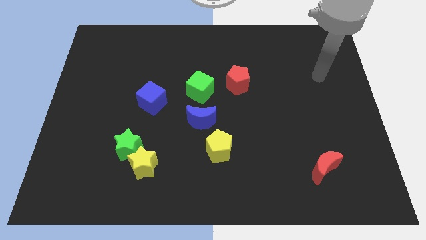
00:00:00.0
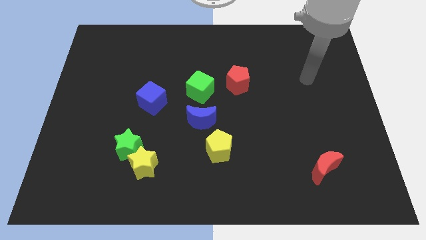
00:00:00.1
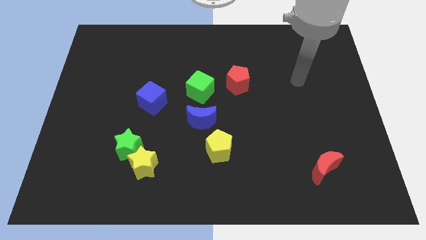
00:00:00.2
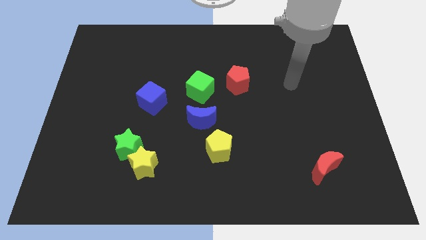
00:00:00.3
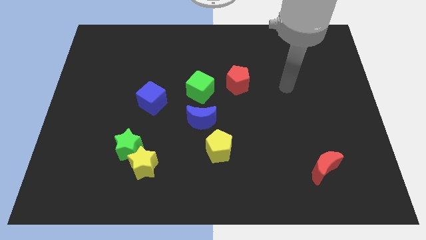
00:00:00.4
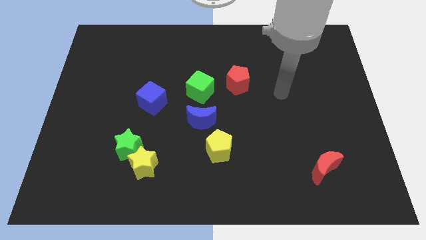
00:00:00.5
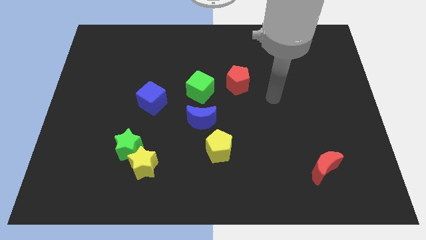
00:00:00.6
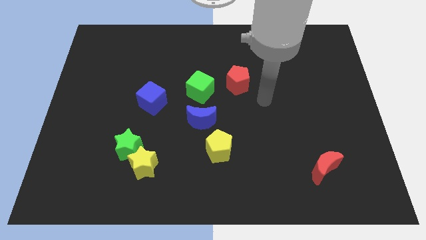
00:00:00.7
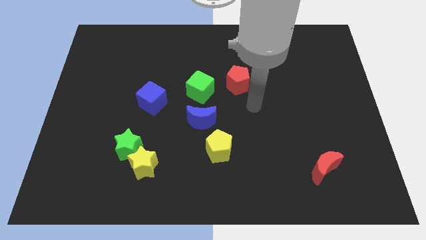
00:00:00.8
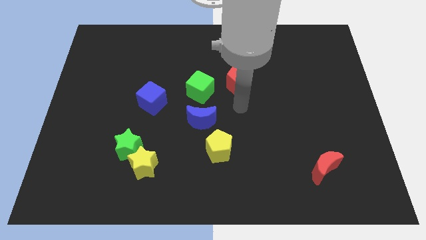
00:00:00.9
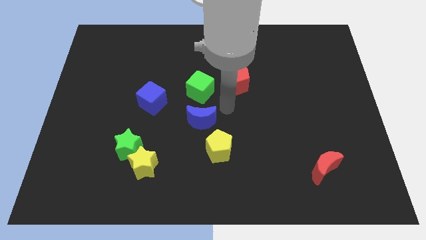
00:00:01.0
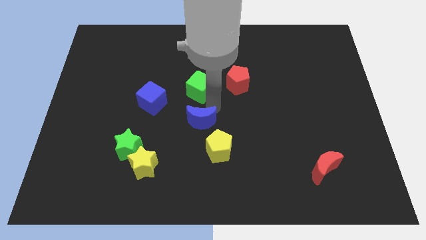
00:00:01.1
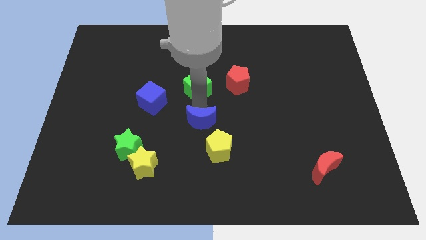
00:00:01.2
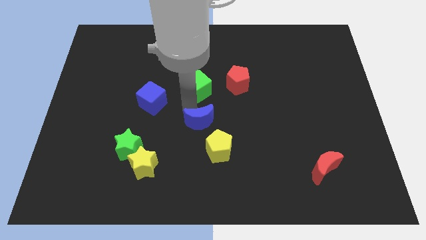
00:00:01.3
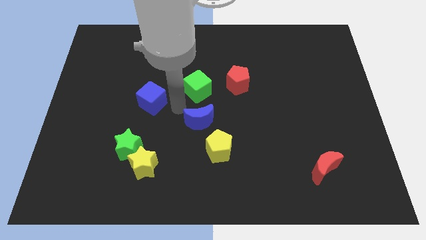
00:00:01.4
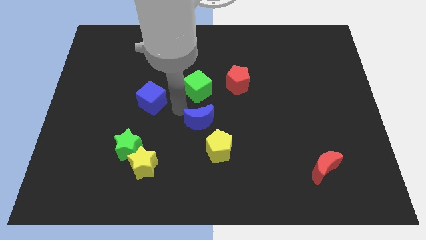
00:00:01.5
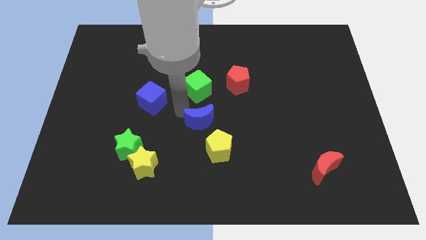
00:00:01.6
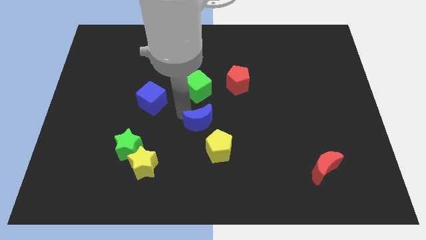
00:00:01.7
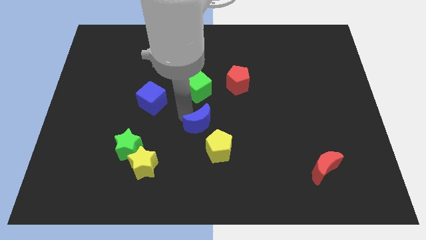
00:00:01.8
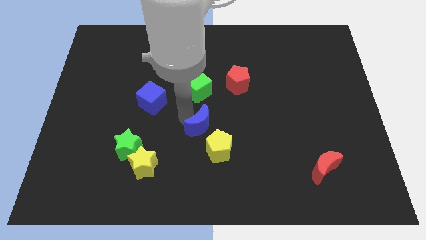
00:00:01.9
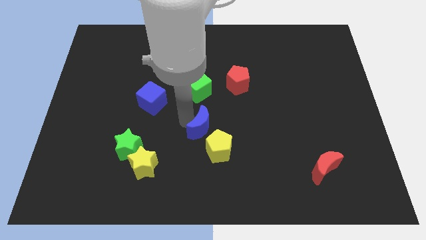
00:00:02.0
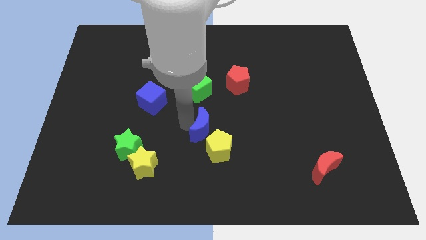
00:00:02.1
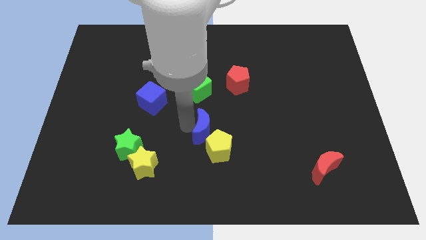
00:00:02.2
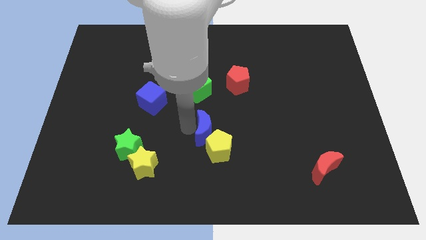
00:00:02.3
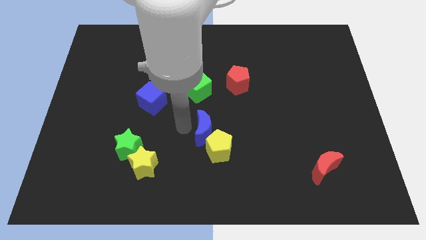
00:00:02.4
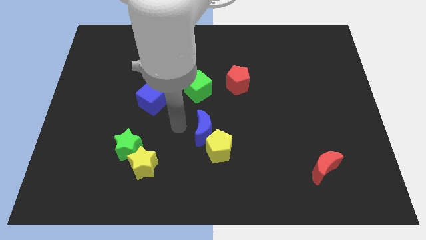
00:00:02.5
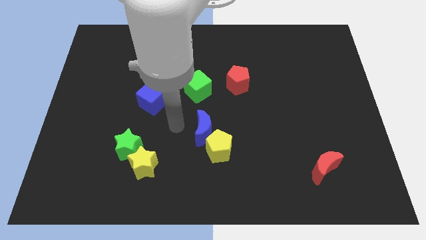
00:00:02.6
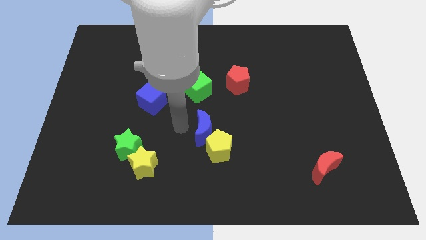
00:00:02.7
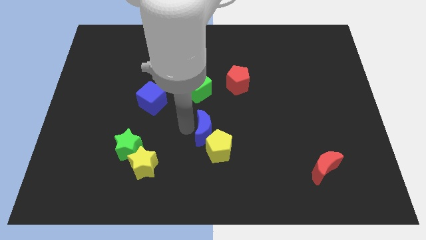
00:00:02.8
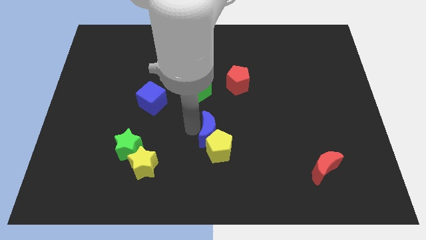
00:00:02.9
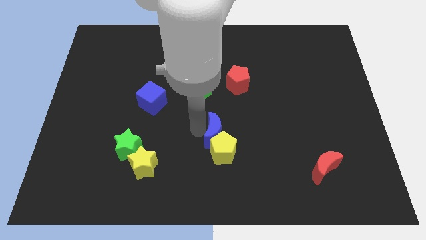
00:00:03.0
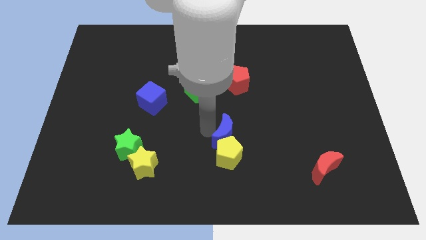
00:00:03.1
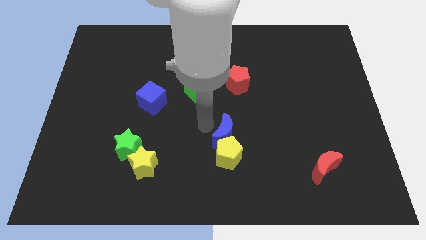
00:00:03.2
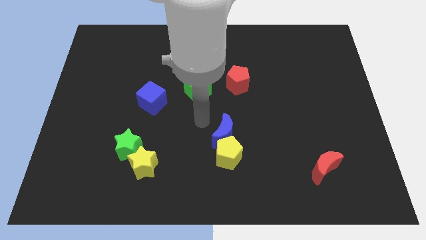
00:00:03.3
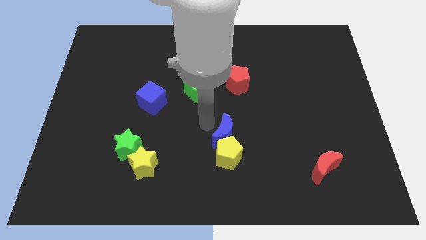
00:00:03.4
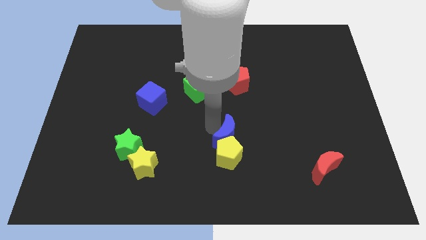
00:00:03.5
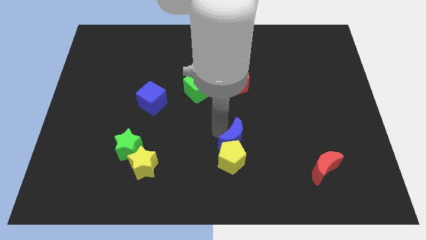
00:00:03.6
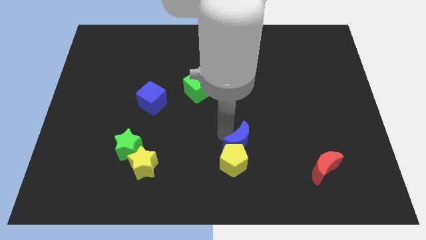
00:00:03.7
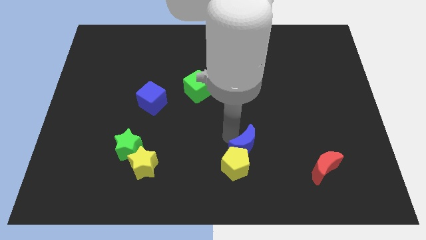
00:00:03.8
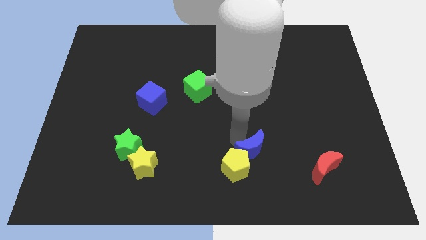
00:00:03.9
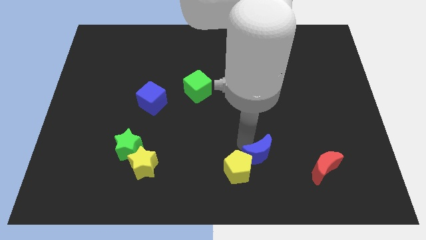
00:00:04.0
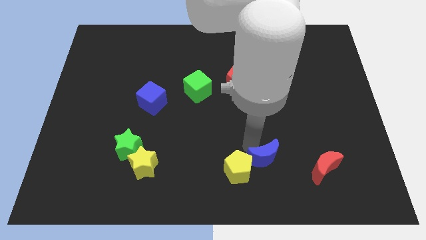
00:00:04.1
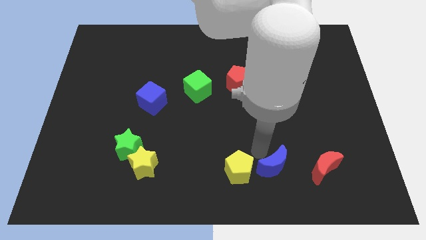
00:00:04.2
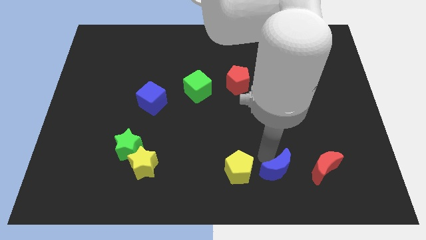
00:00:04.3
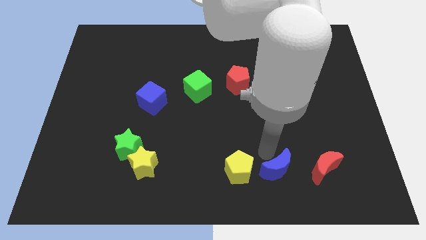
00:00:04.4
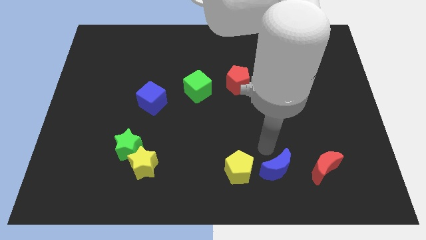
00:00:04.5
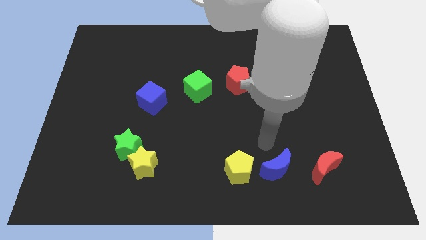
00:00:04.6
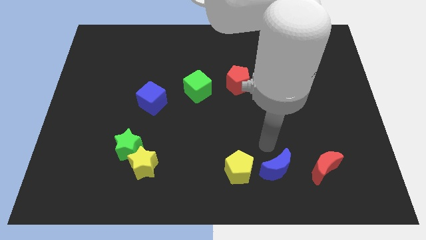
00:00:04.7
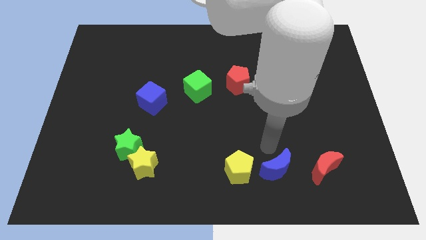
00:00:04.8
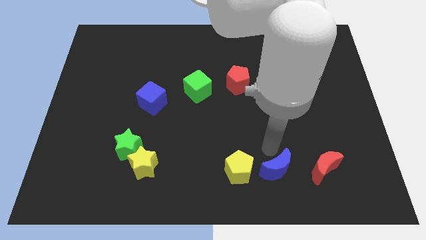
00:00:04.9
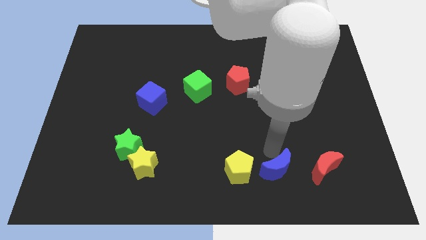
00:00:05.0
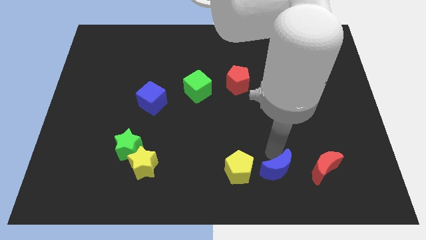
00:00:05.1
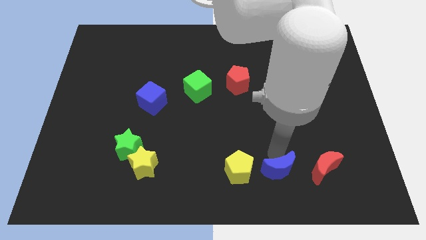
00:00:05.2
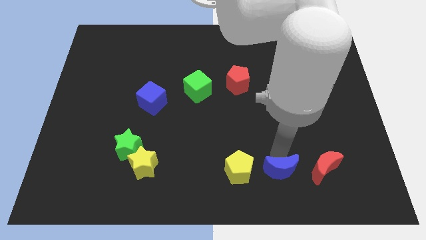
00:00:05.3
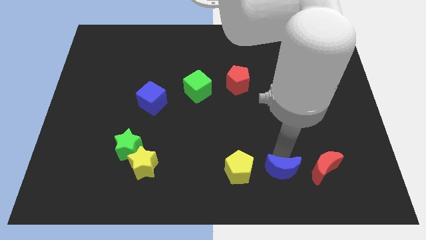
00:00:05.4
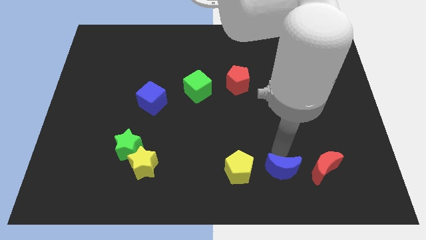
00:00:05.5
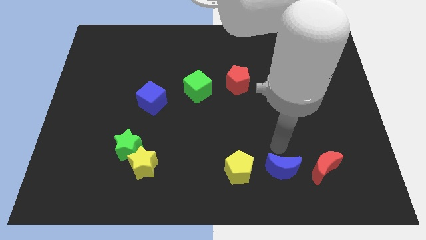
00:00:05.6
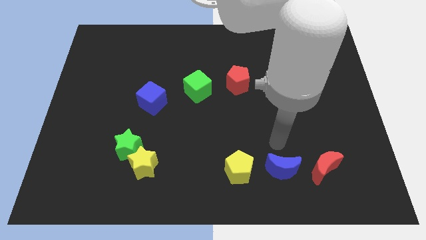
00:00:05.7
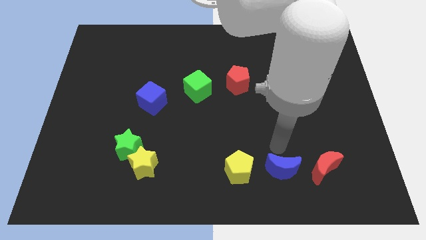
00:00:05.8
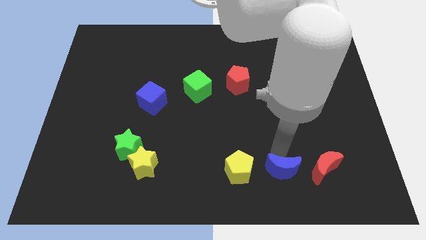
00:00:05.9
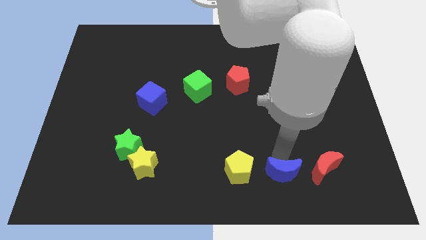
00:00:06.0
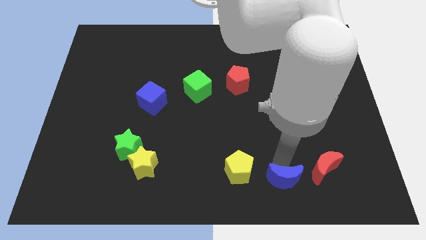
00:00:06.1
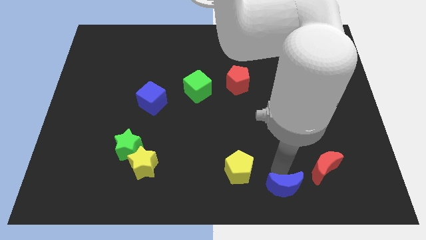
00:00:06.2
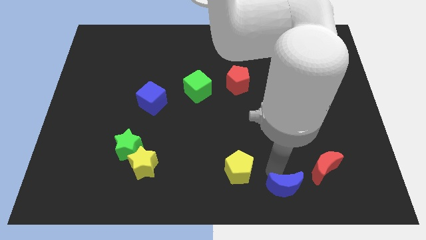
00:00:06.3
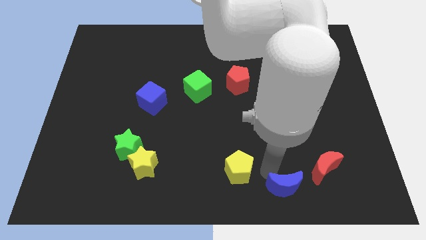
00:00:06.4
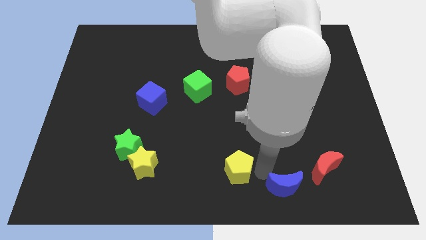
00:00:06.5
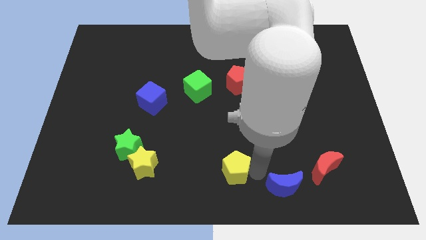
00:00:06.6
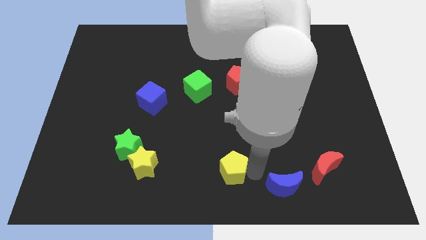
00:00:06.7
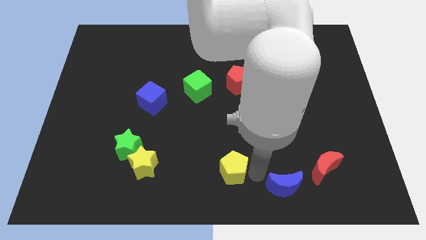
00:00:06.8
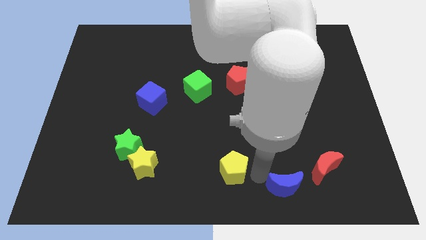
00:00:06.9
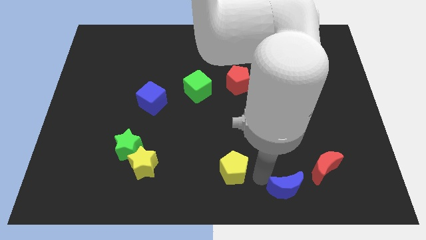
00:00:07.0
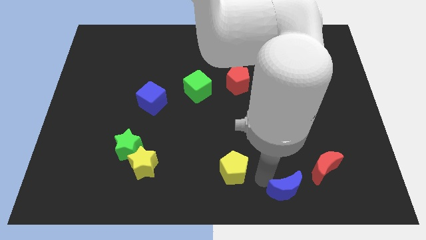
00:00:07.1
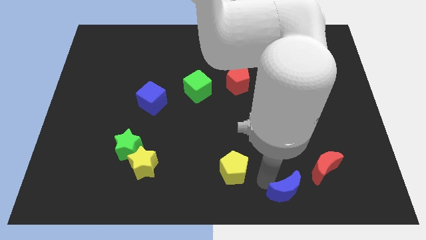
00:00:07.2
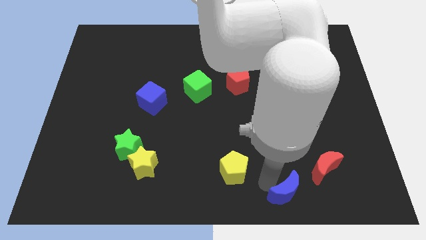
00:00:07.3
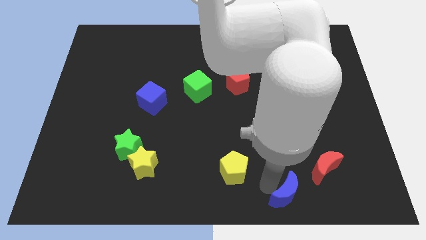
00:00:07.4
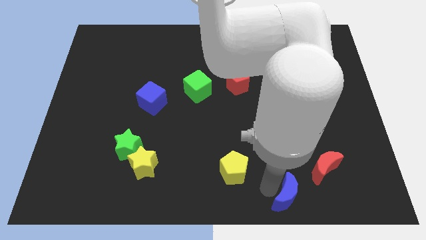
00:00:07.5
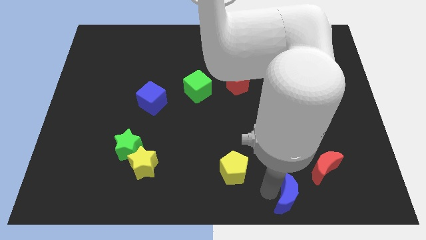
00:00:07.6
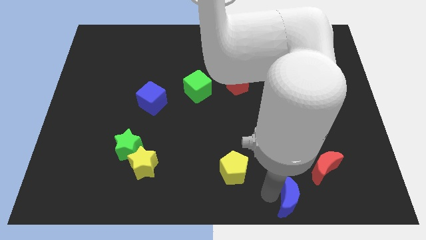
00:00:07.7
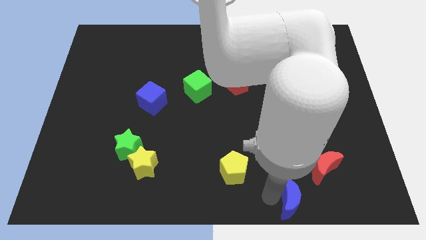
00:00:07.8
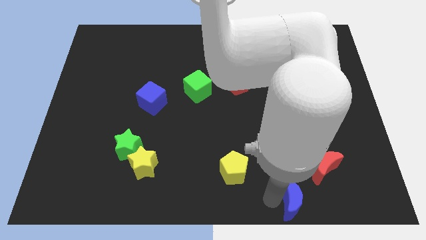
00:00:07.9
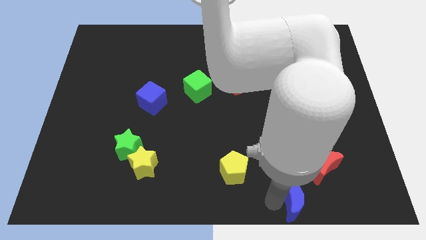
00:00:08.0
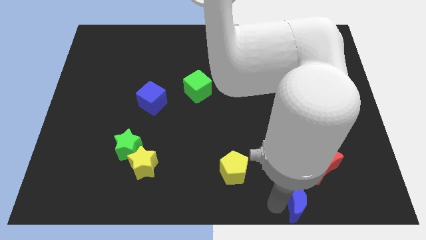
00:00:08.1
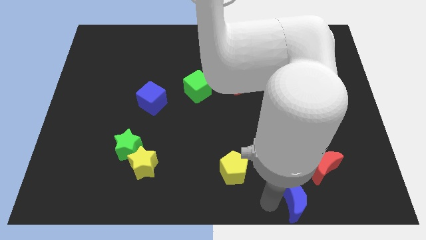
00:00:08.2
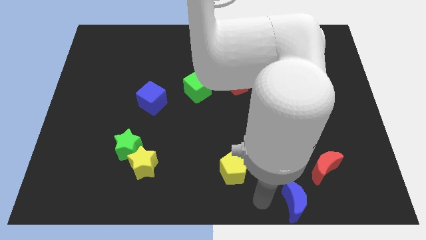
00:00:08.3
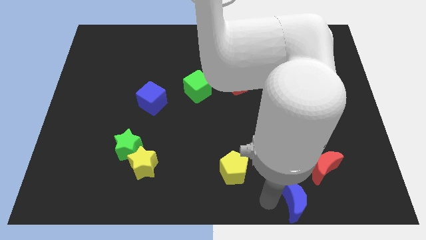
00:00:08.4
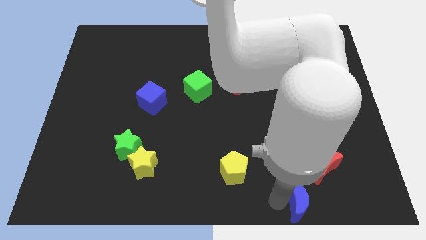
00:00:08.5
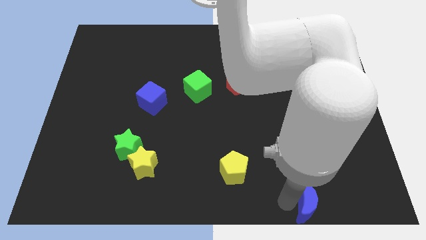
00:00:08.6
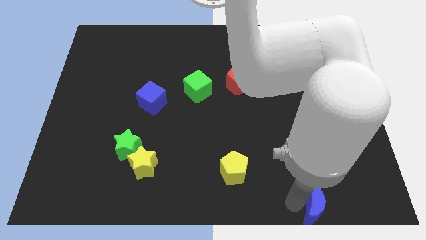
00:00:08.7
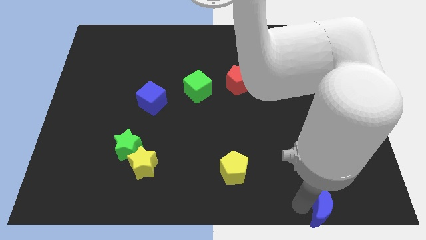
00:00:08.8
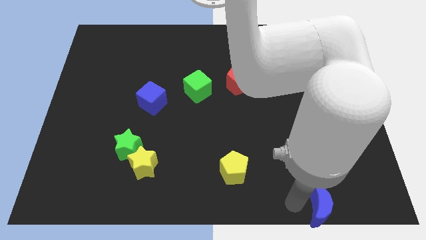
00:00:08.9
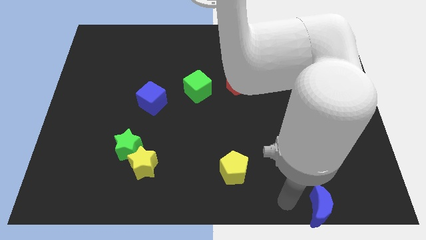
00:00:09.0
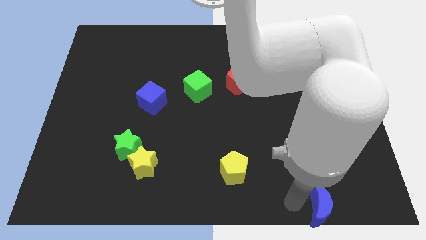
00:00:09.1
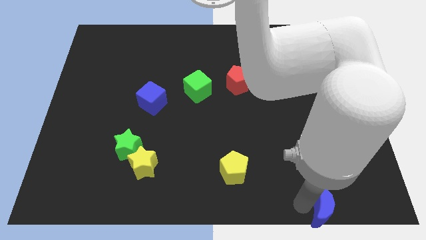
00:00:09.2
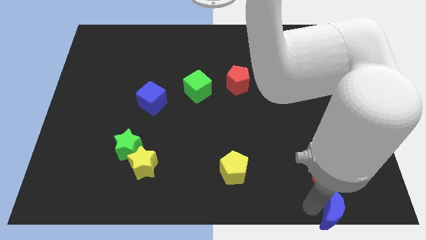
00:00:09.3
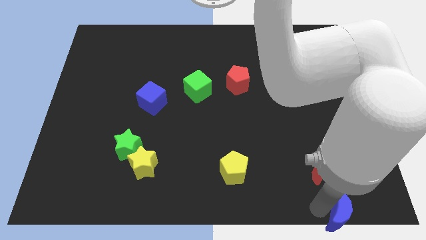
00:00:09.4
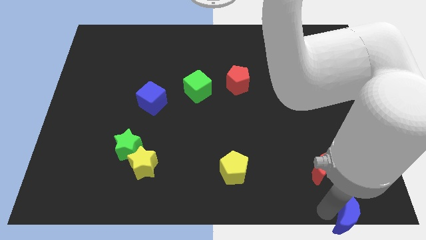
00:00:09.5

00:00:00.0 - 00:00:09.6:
push the blue moon to the bottom right
